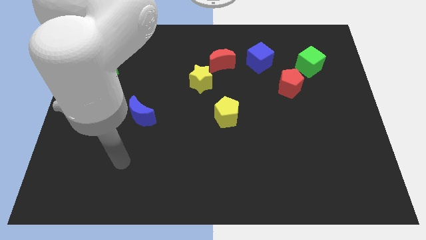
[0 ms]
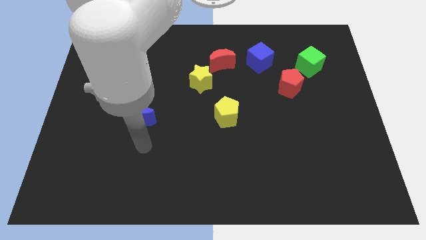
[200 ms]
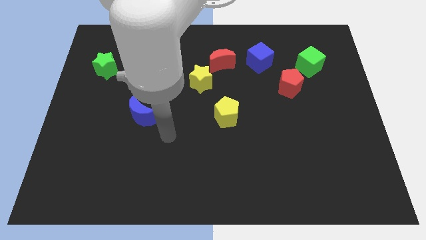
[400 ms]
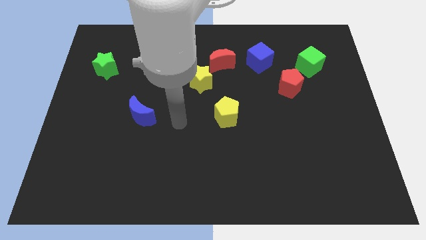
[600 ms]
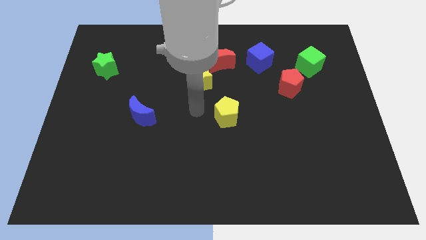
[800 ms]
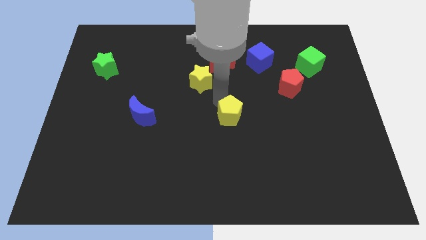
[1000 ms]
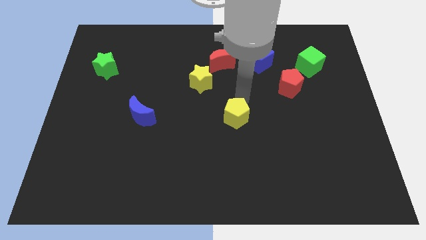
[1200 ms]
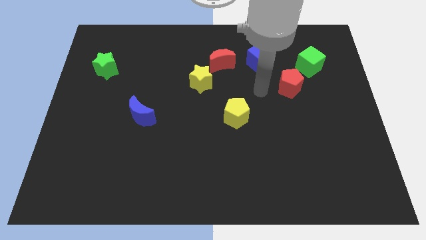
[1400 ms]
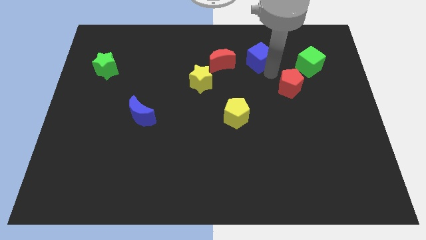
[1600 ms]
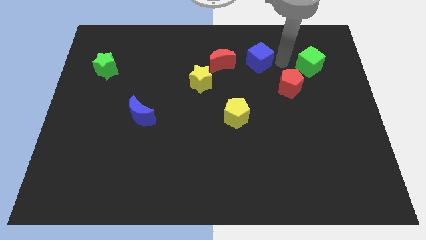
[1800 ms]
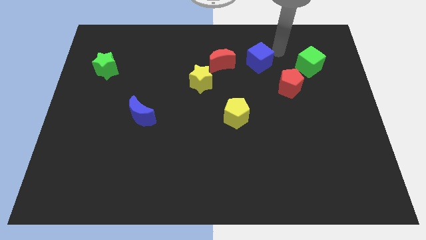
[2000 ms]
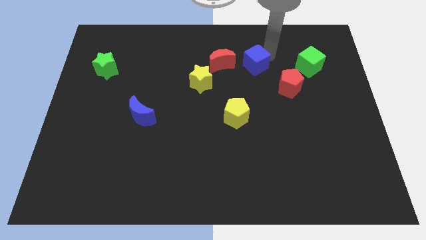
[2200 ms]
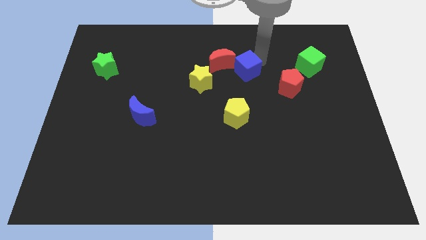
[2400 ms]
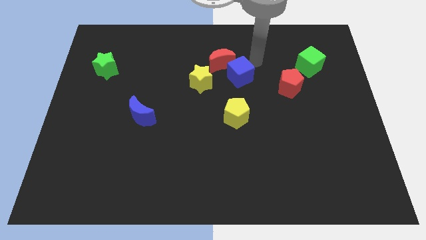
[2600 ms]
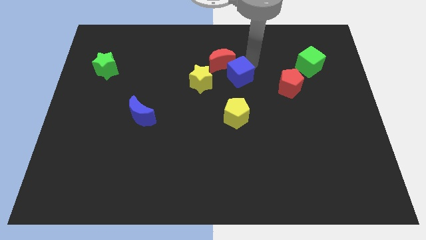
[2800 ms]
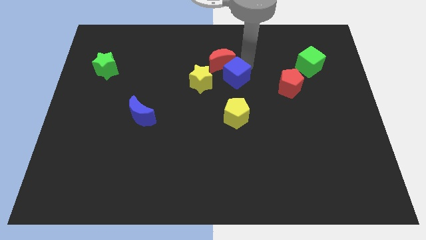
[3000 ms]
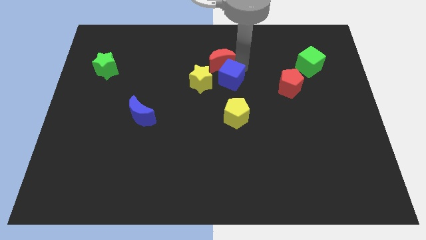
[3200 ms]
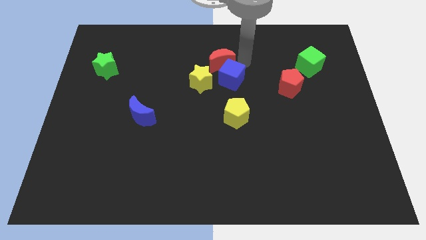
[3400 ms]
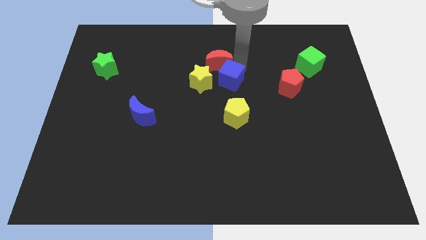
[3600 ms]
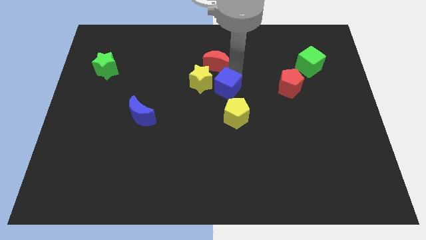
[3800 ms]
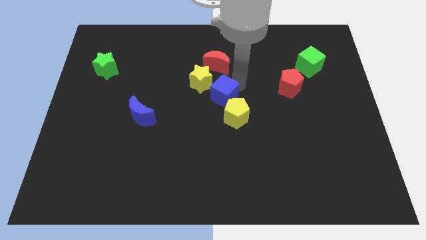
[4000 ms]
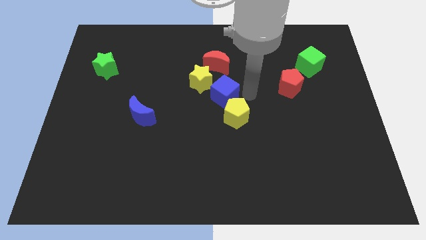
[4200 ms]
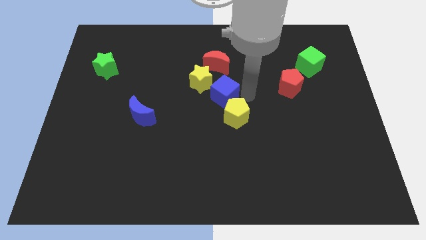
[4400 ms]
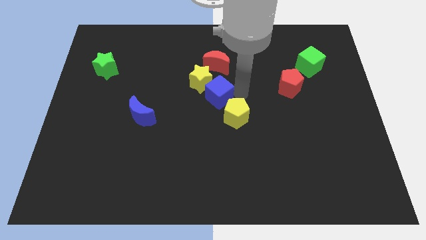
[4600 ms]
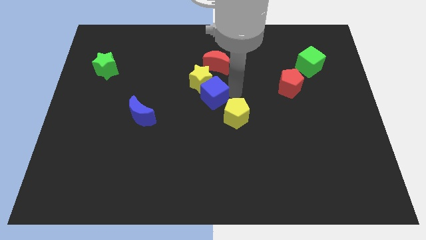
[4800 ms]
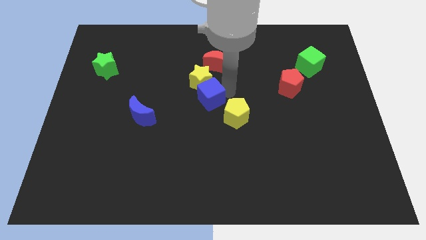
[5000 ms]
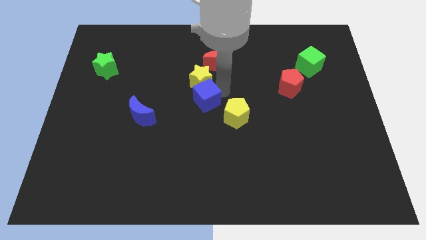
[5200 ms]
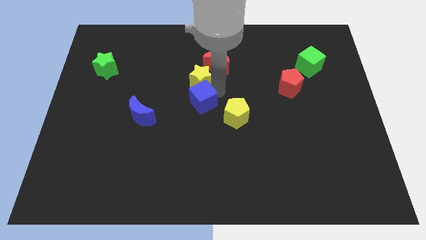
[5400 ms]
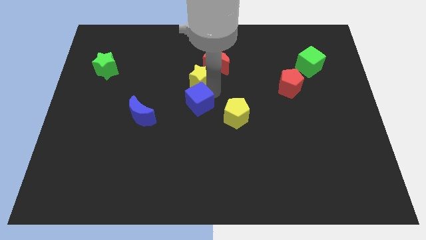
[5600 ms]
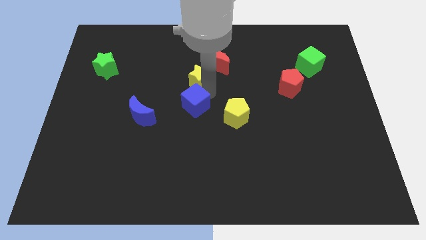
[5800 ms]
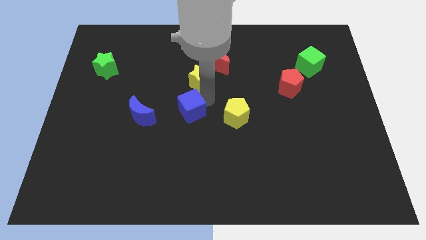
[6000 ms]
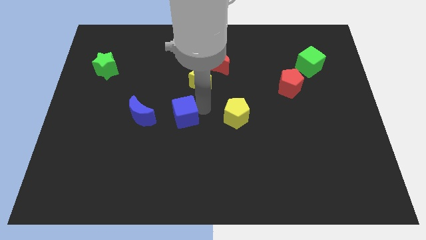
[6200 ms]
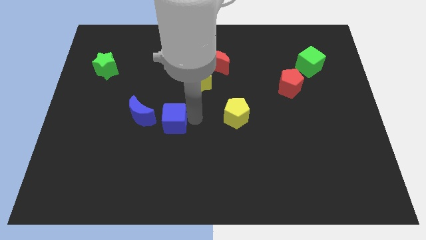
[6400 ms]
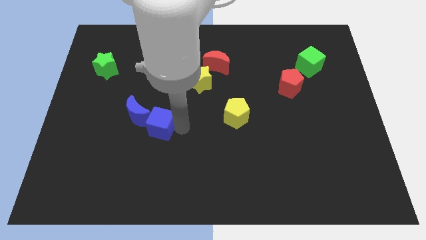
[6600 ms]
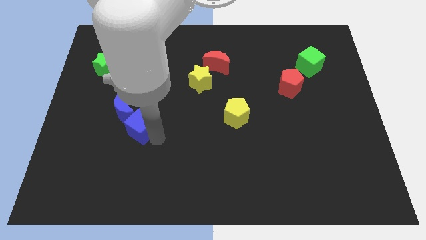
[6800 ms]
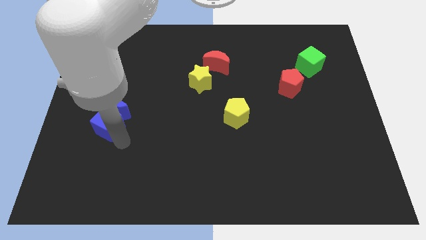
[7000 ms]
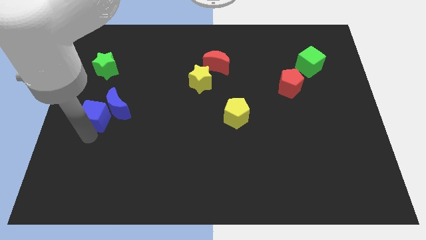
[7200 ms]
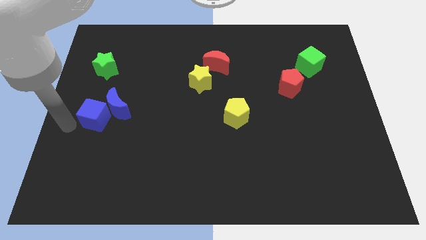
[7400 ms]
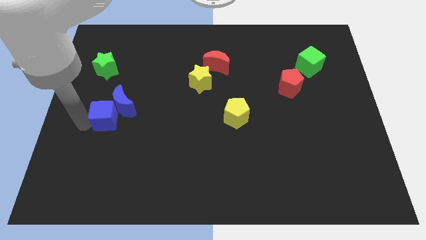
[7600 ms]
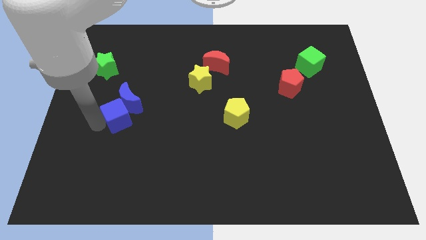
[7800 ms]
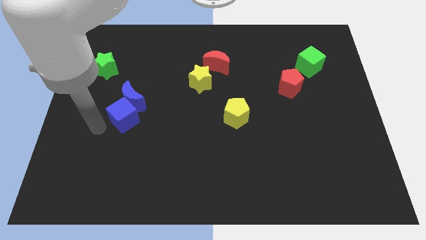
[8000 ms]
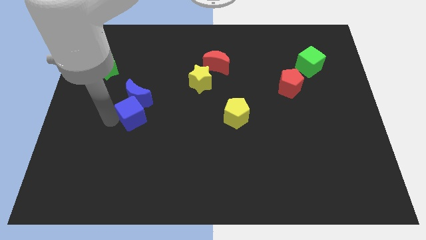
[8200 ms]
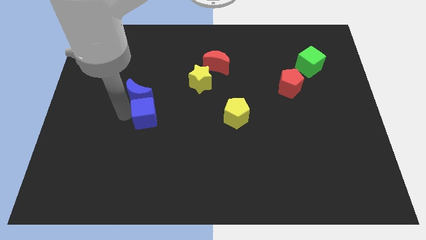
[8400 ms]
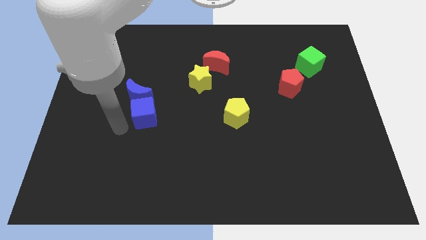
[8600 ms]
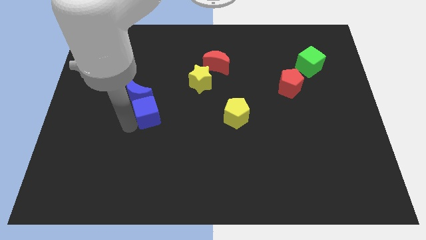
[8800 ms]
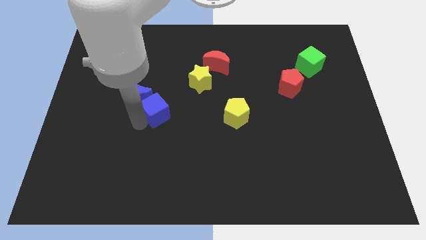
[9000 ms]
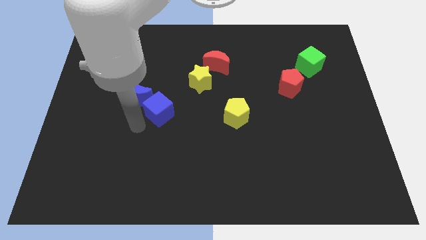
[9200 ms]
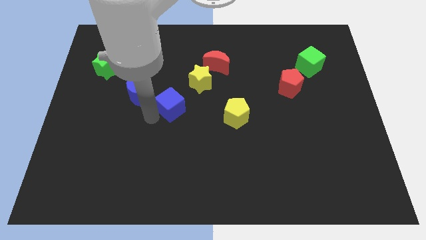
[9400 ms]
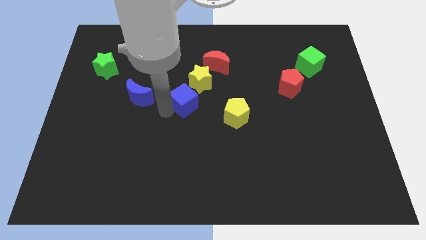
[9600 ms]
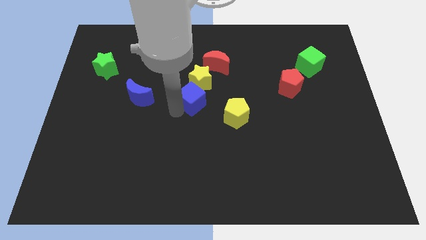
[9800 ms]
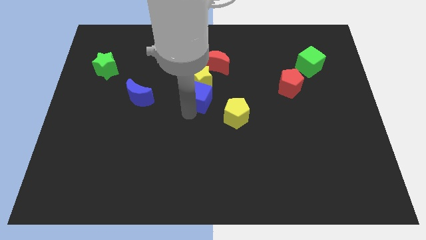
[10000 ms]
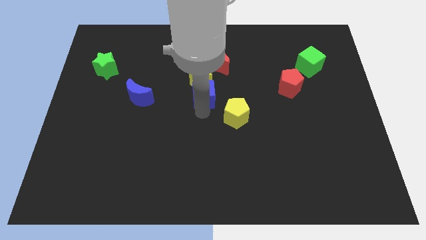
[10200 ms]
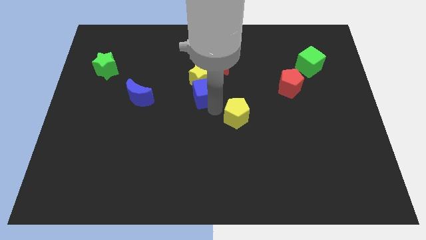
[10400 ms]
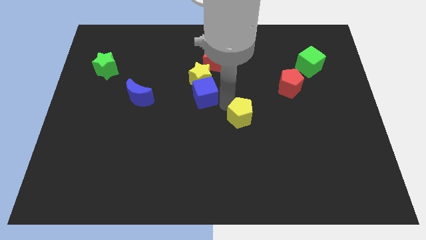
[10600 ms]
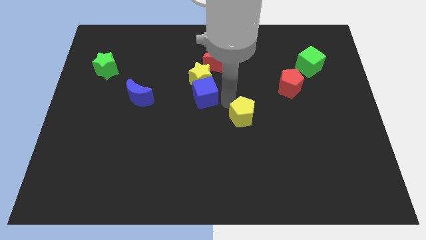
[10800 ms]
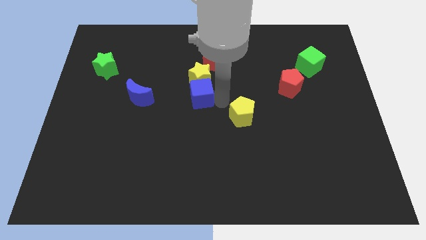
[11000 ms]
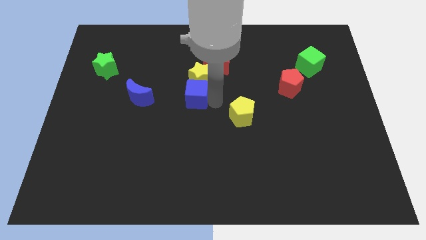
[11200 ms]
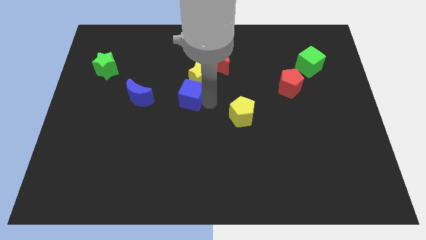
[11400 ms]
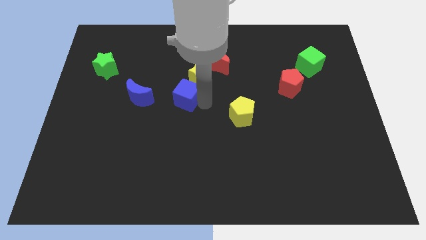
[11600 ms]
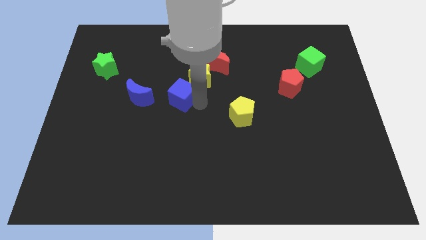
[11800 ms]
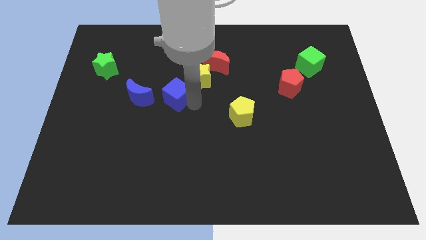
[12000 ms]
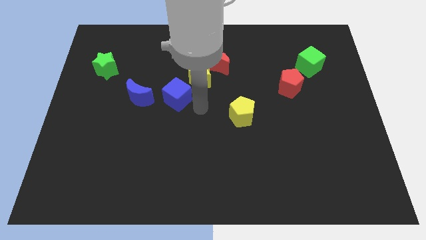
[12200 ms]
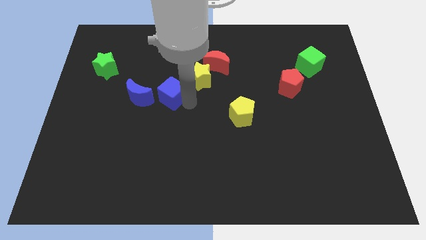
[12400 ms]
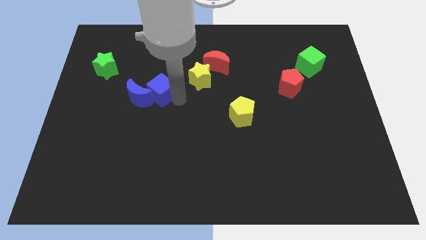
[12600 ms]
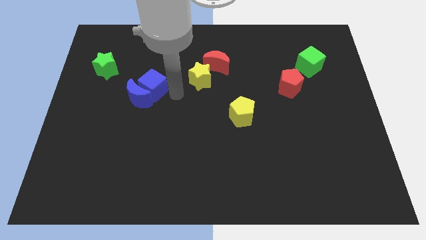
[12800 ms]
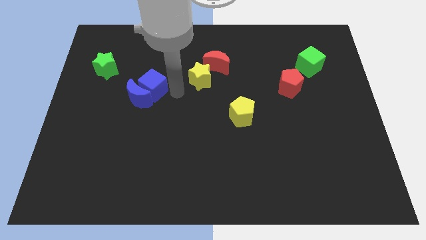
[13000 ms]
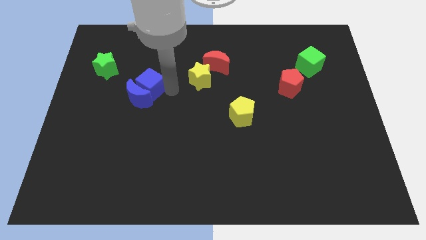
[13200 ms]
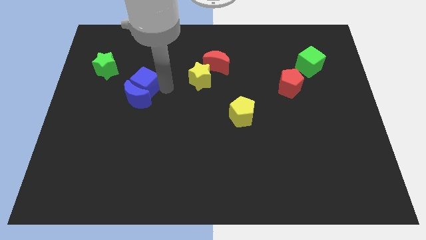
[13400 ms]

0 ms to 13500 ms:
move the blue cube to the bottom right side of the green star

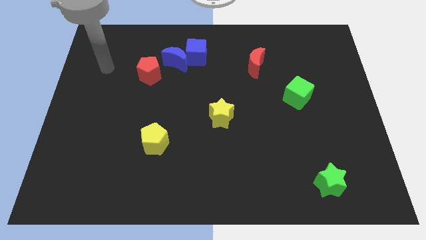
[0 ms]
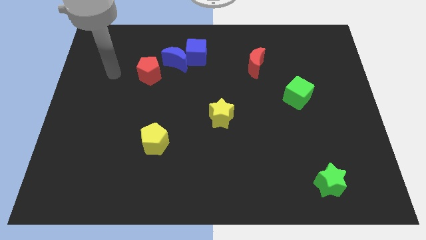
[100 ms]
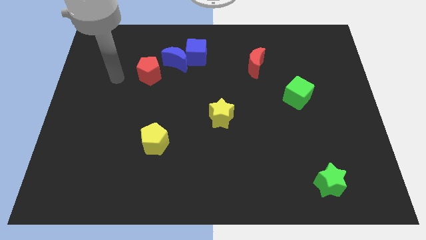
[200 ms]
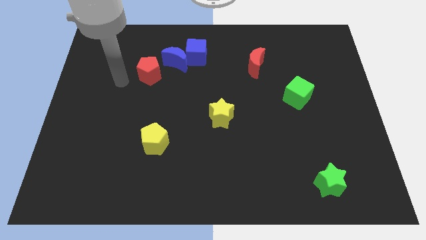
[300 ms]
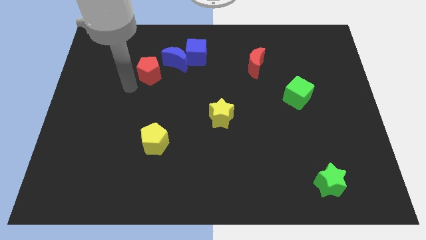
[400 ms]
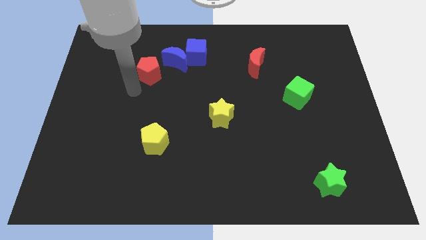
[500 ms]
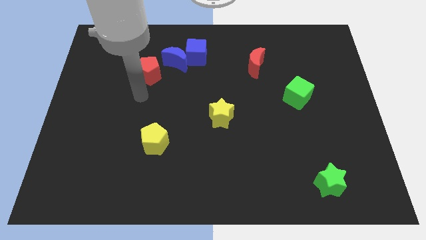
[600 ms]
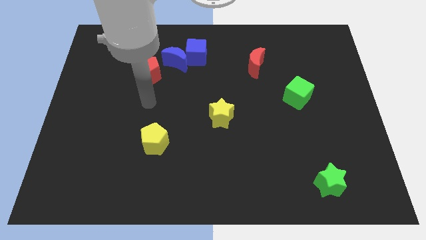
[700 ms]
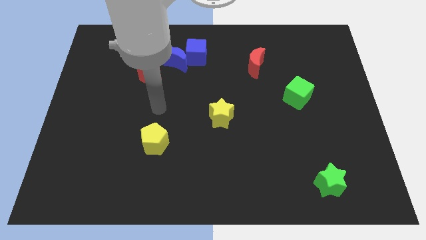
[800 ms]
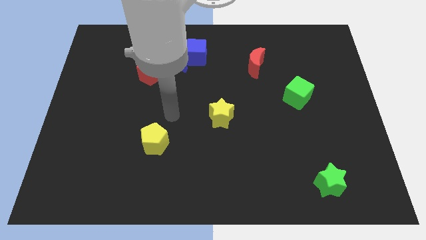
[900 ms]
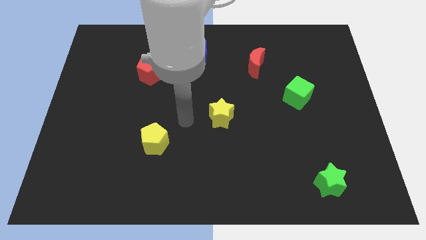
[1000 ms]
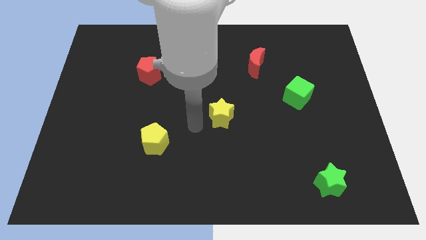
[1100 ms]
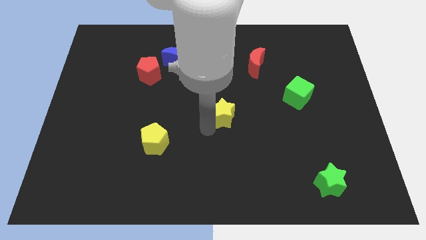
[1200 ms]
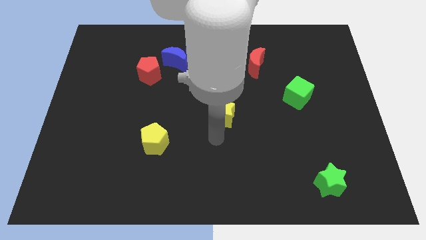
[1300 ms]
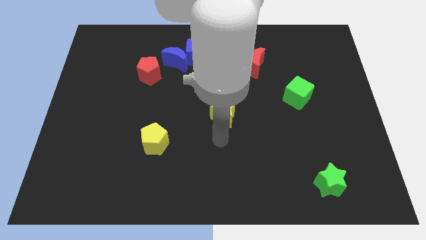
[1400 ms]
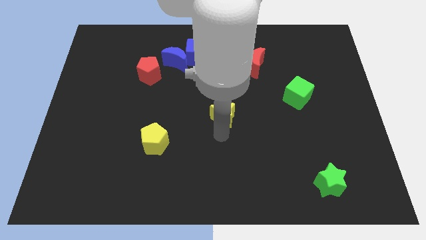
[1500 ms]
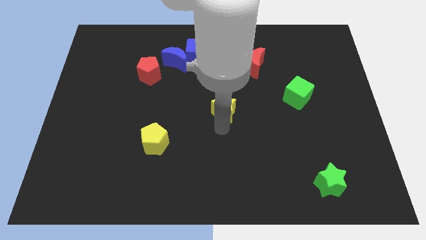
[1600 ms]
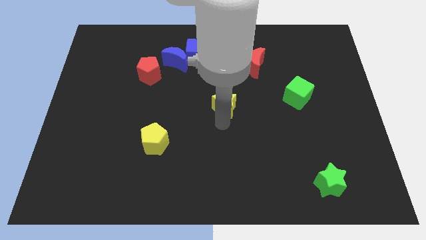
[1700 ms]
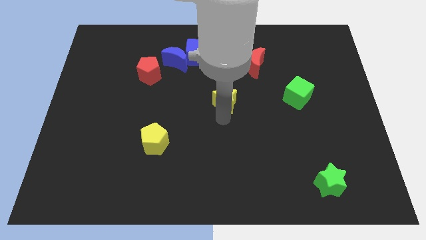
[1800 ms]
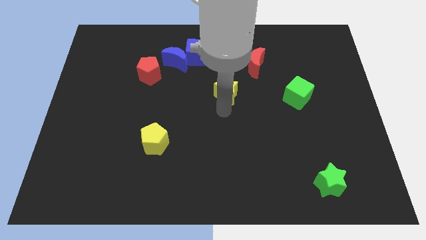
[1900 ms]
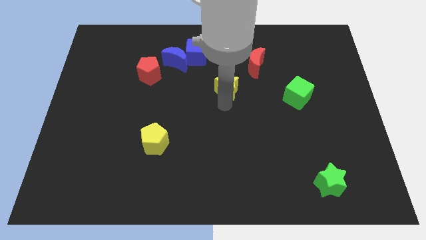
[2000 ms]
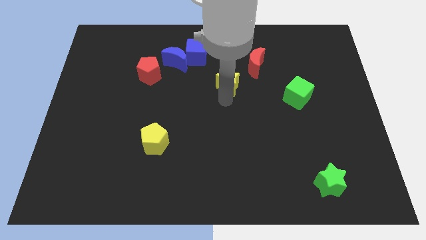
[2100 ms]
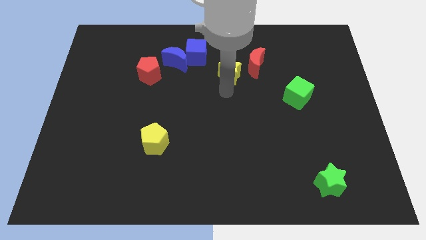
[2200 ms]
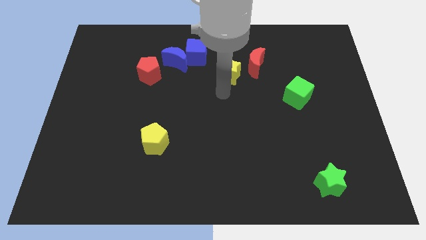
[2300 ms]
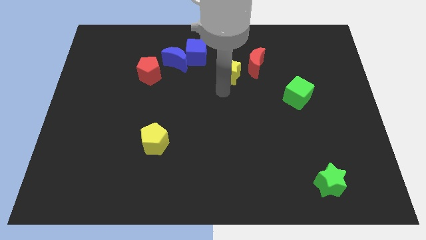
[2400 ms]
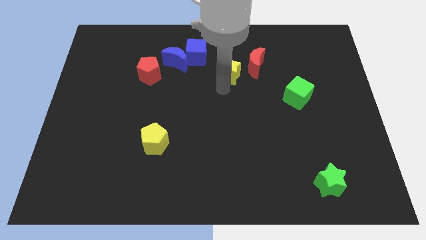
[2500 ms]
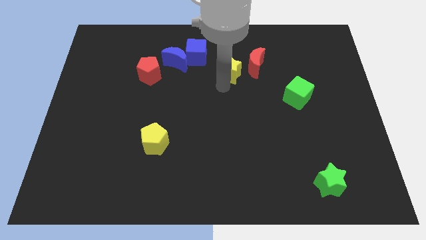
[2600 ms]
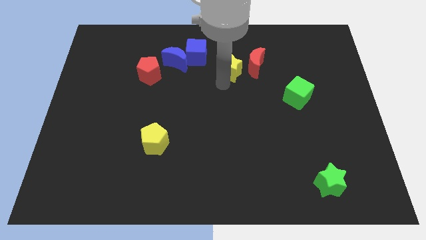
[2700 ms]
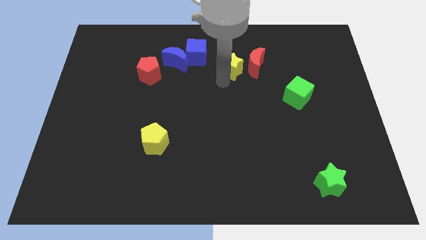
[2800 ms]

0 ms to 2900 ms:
push the yellow star just right of the blue cube
